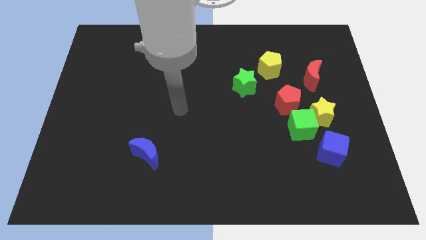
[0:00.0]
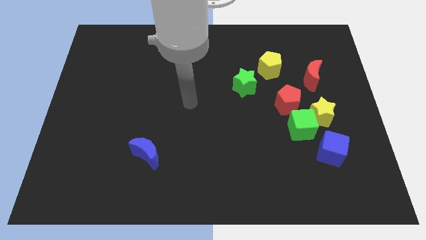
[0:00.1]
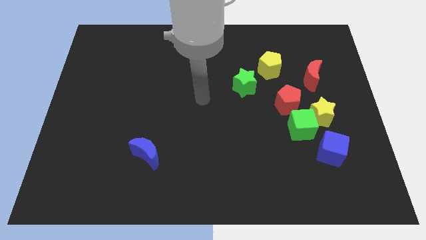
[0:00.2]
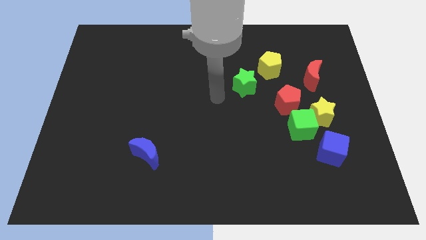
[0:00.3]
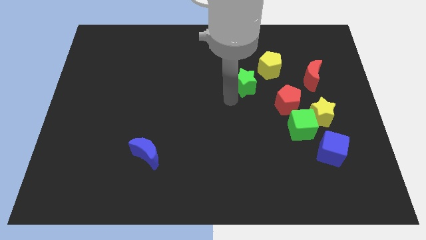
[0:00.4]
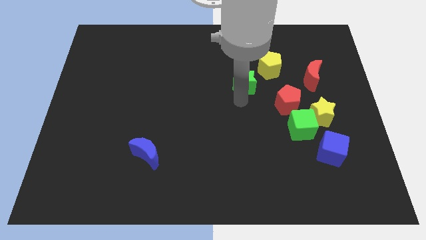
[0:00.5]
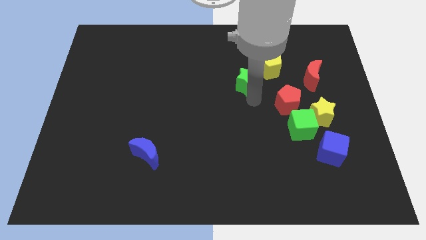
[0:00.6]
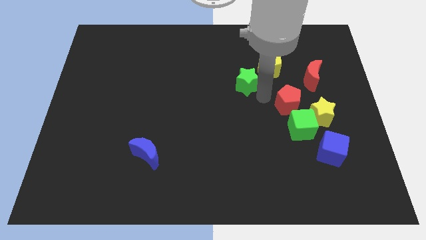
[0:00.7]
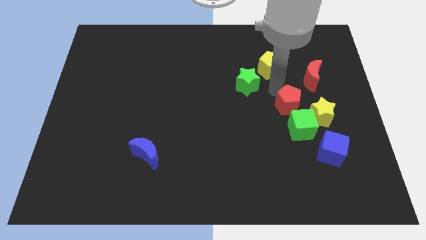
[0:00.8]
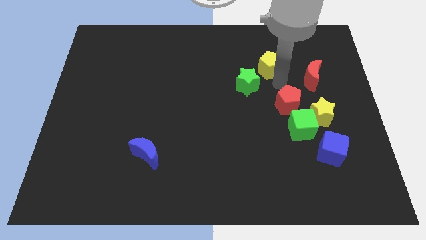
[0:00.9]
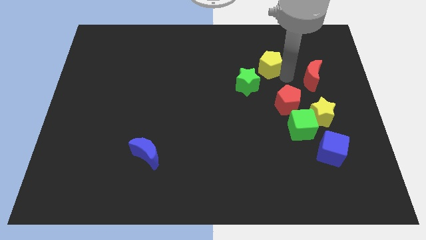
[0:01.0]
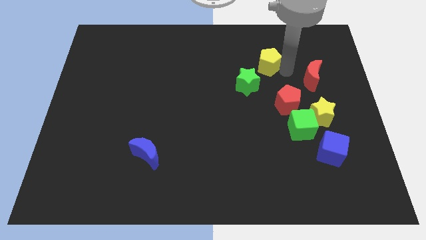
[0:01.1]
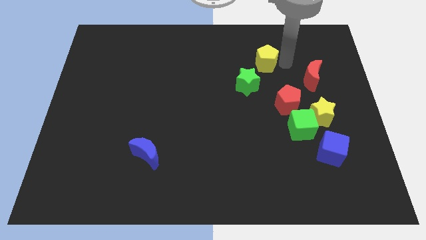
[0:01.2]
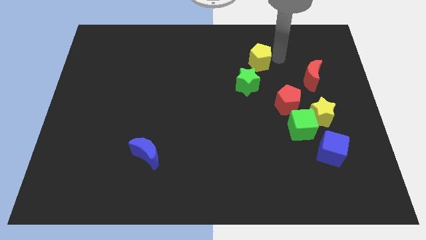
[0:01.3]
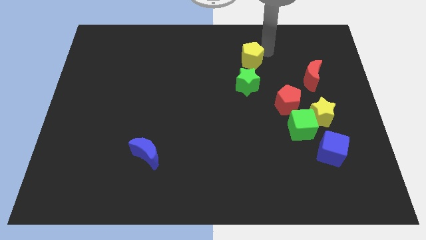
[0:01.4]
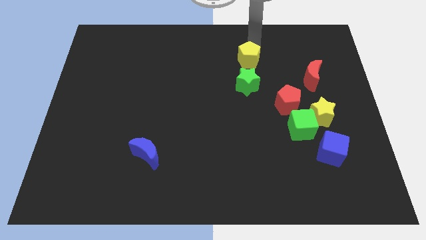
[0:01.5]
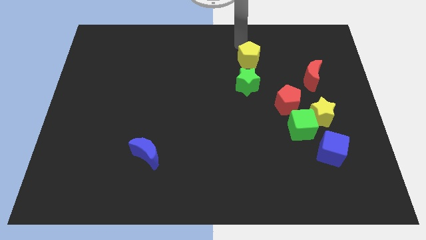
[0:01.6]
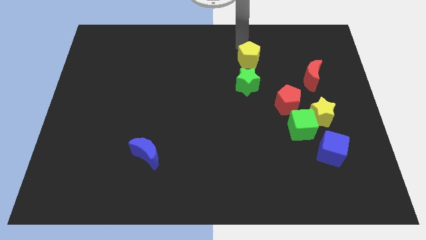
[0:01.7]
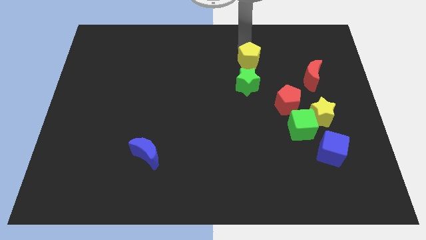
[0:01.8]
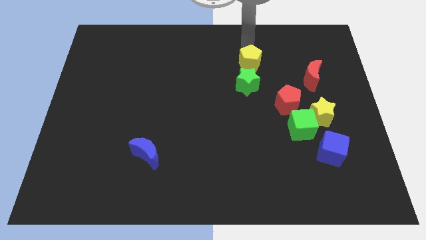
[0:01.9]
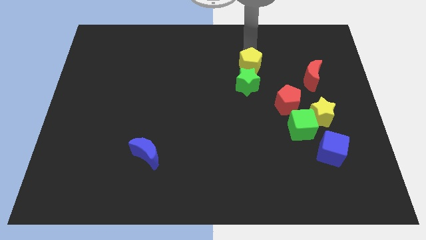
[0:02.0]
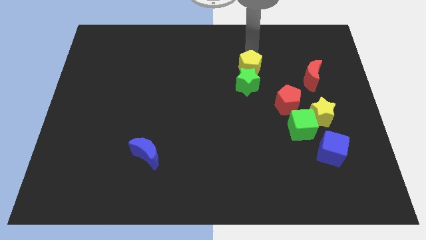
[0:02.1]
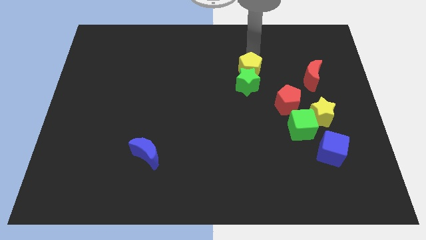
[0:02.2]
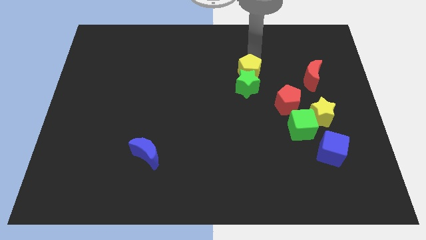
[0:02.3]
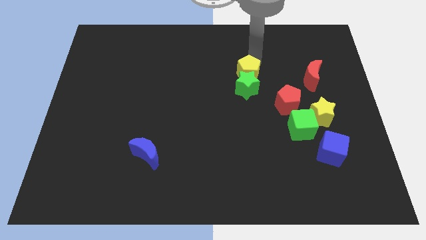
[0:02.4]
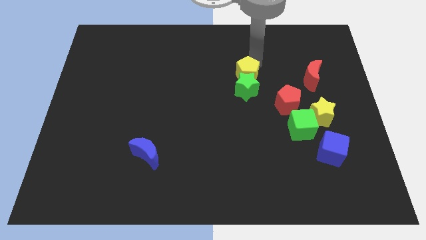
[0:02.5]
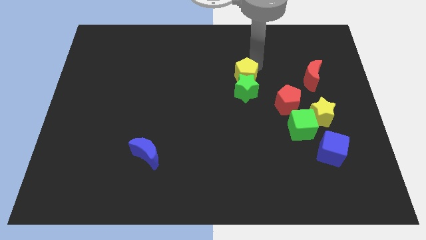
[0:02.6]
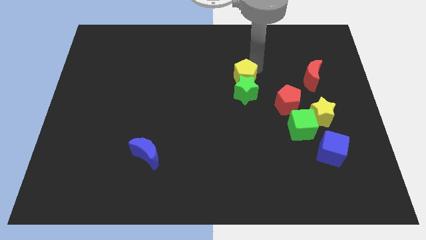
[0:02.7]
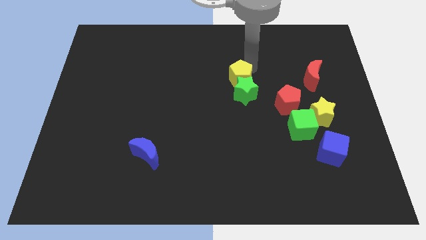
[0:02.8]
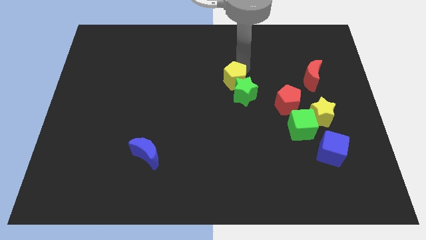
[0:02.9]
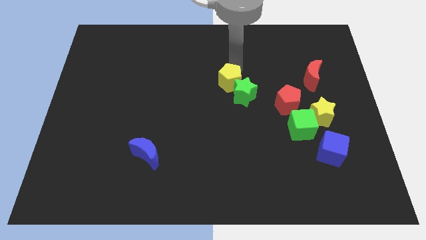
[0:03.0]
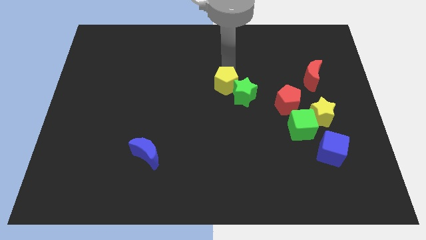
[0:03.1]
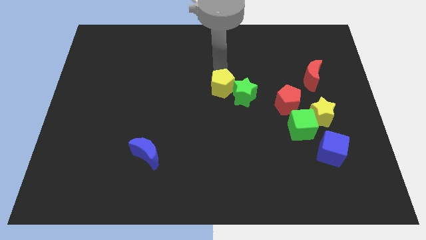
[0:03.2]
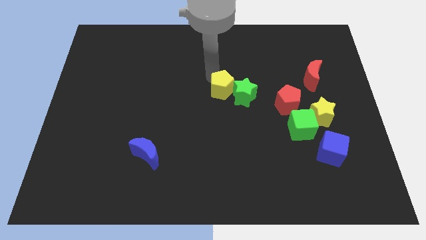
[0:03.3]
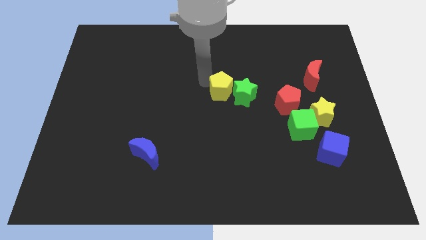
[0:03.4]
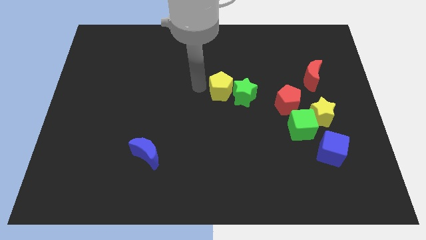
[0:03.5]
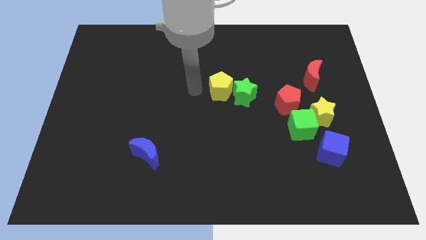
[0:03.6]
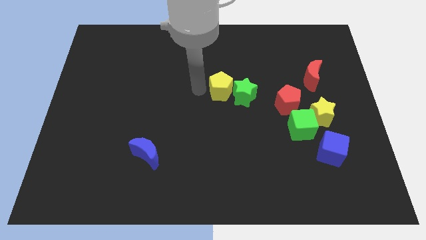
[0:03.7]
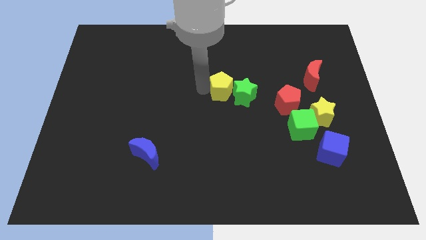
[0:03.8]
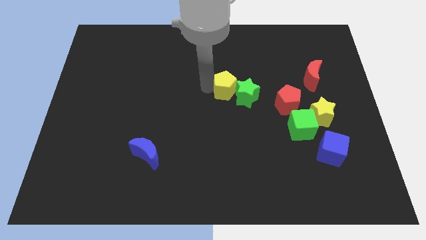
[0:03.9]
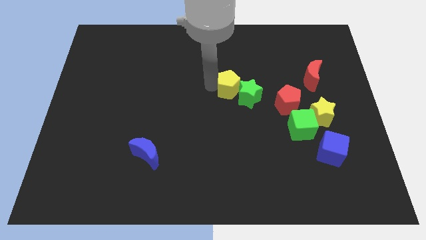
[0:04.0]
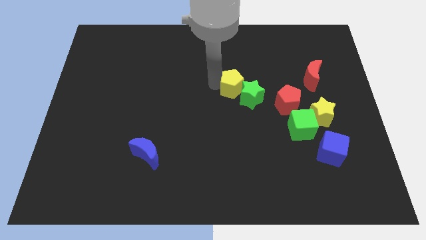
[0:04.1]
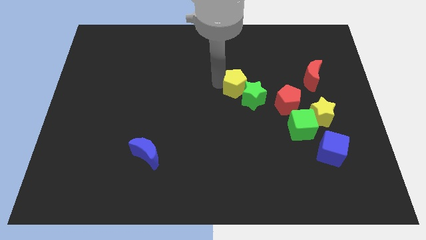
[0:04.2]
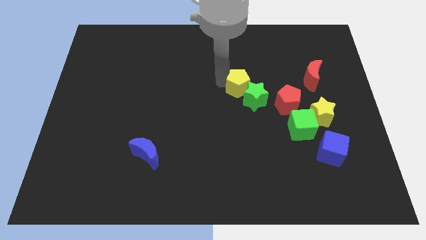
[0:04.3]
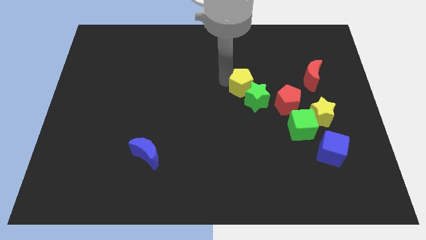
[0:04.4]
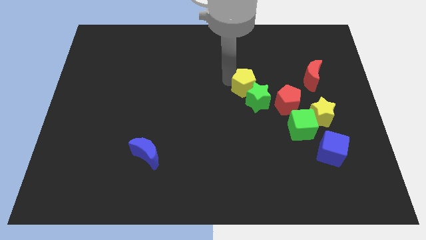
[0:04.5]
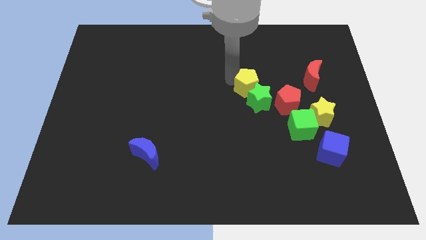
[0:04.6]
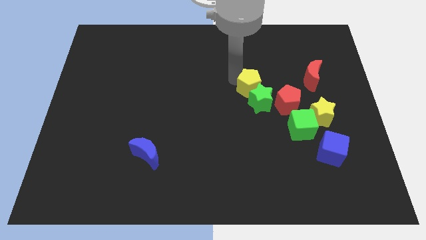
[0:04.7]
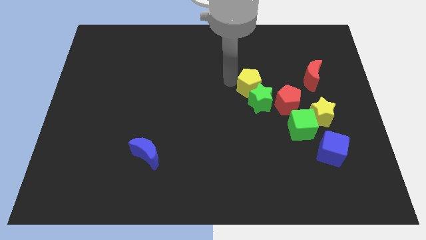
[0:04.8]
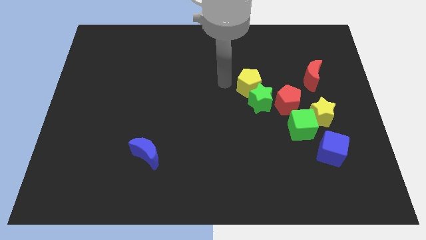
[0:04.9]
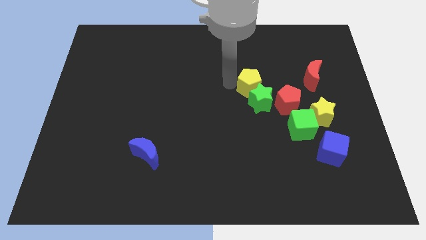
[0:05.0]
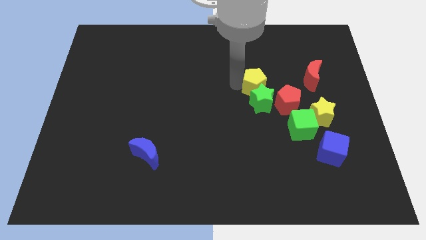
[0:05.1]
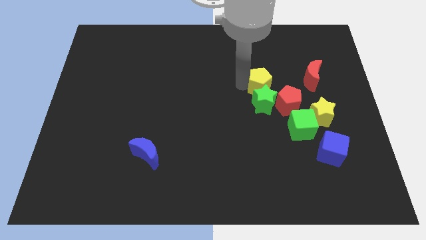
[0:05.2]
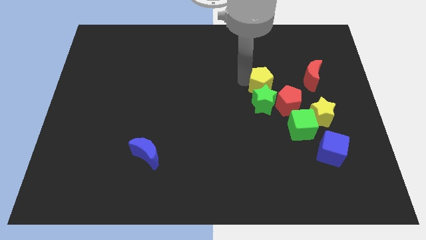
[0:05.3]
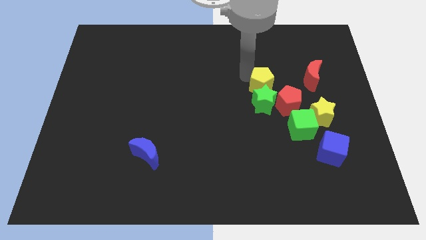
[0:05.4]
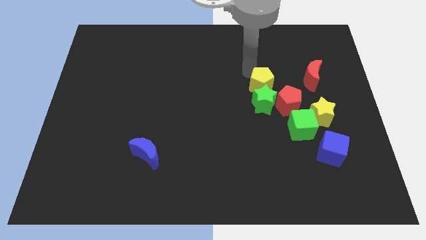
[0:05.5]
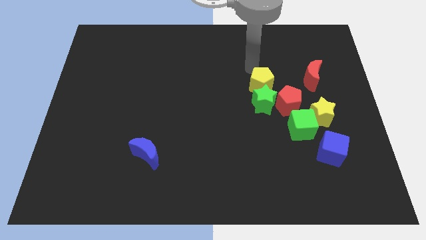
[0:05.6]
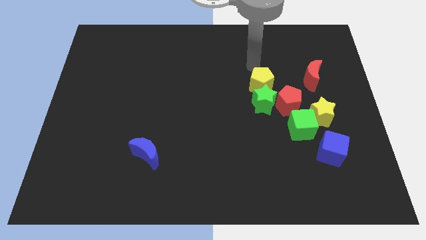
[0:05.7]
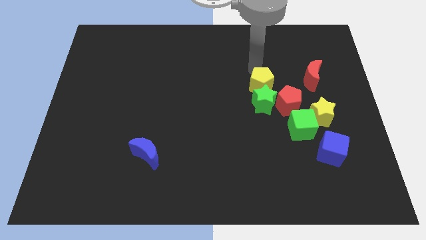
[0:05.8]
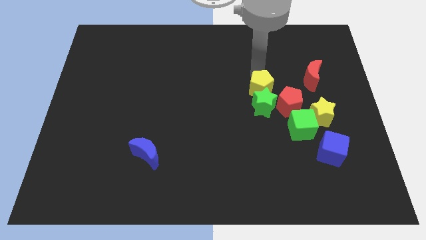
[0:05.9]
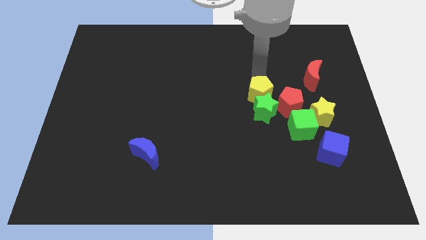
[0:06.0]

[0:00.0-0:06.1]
slide the yellow pentagon a bit downwards

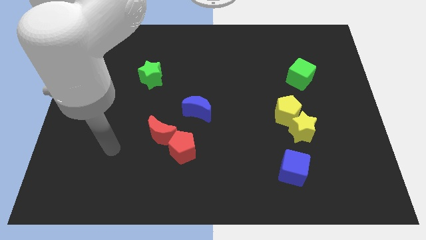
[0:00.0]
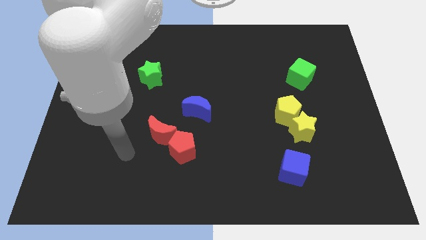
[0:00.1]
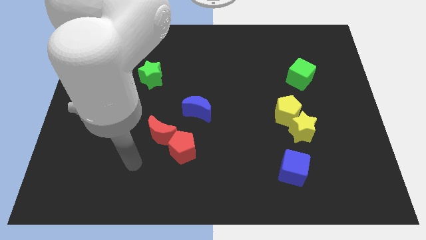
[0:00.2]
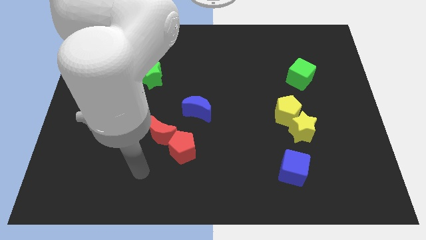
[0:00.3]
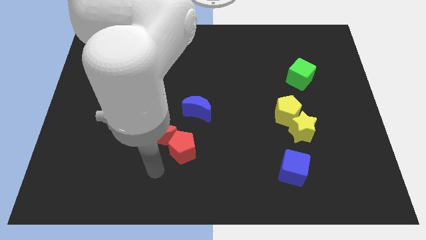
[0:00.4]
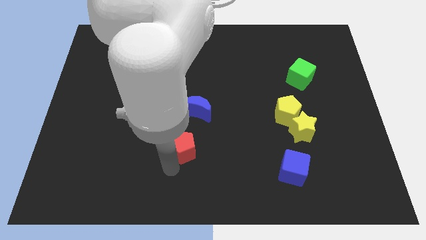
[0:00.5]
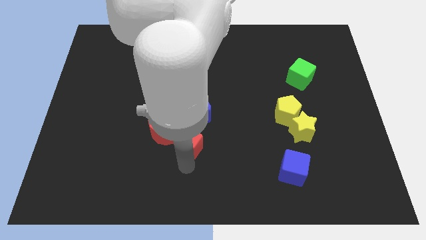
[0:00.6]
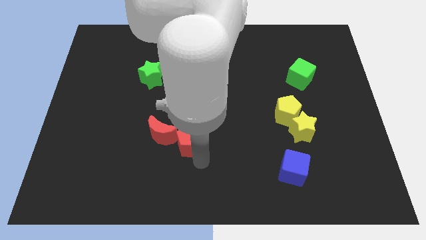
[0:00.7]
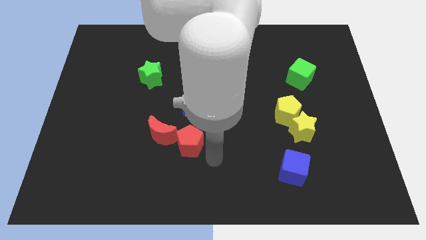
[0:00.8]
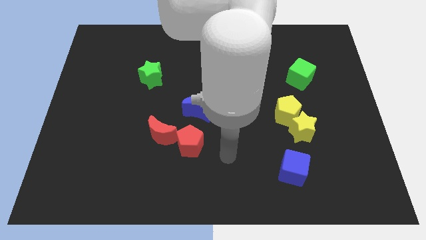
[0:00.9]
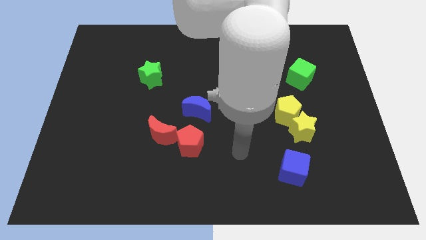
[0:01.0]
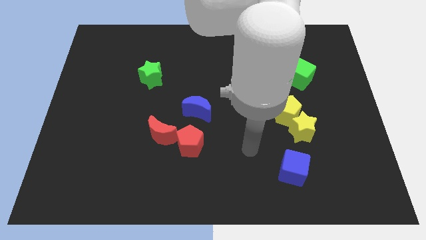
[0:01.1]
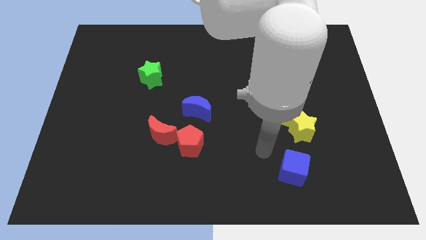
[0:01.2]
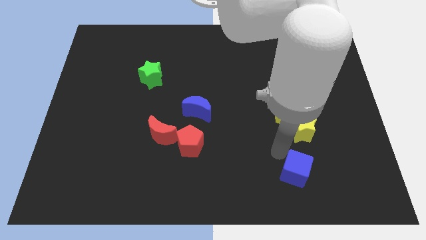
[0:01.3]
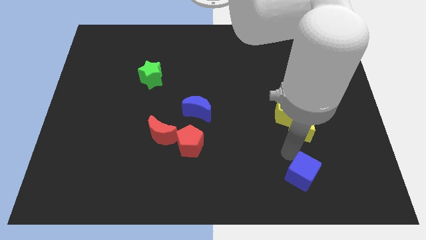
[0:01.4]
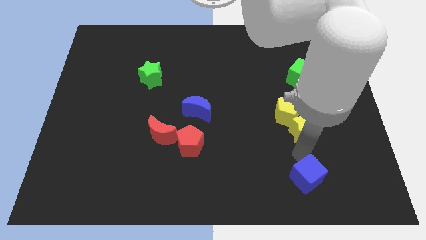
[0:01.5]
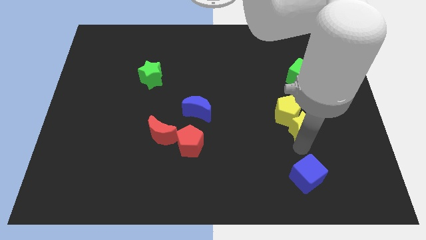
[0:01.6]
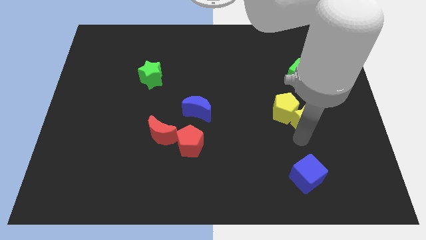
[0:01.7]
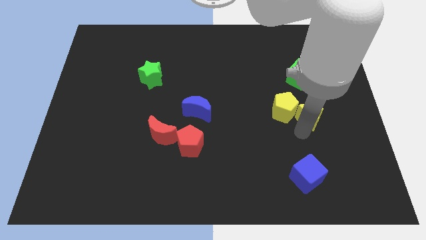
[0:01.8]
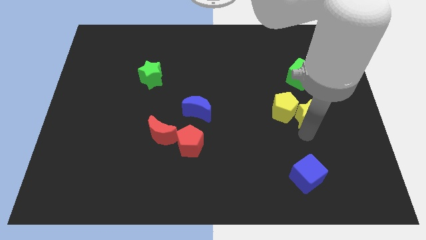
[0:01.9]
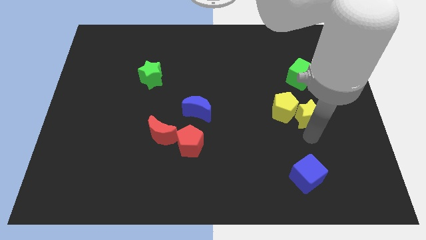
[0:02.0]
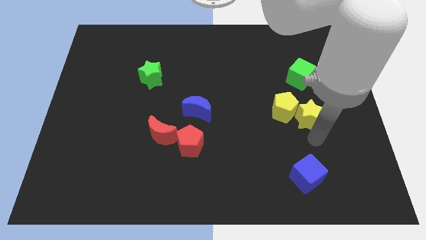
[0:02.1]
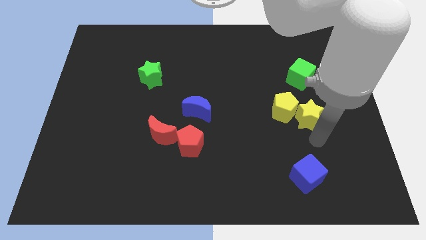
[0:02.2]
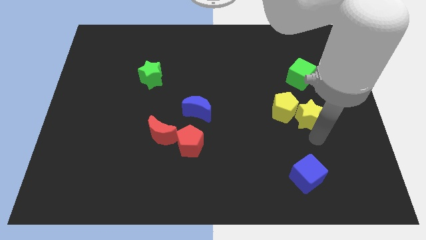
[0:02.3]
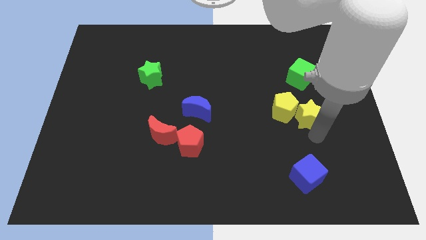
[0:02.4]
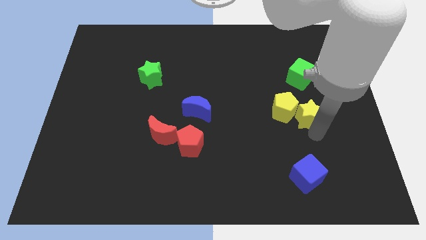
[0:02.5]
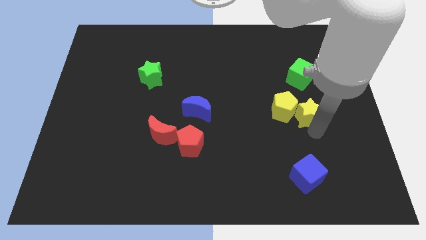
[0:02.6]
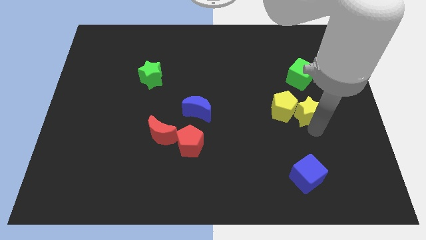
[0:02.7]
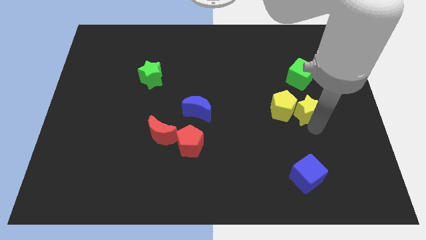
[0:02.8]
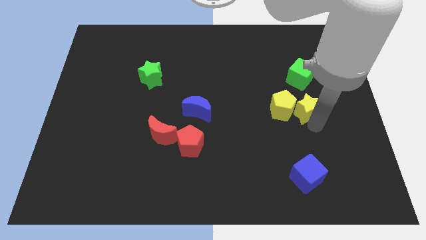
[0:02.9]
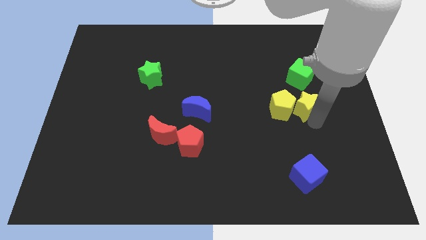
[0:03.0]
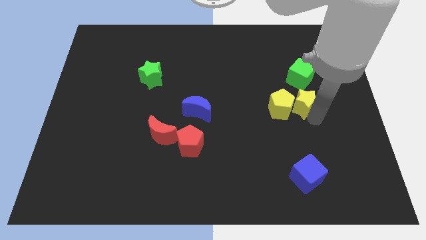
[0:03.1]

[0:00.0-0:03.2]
move the yellow star upwards a bit
